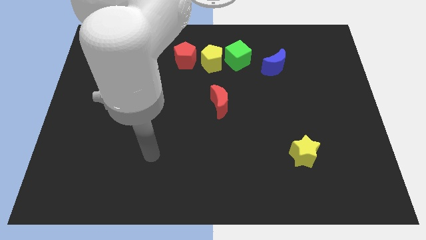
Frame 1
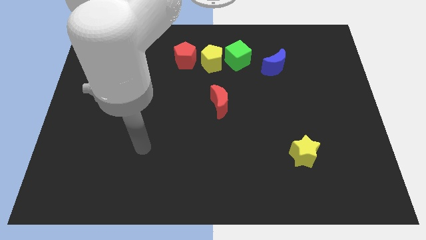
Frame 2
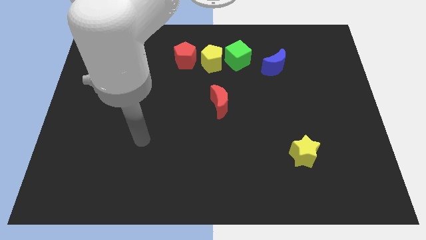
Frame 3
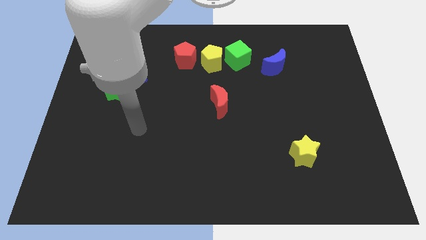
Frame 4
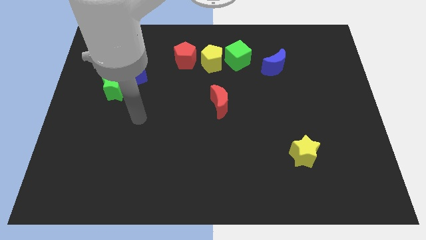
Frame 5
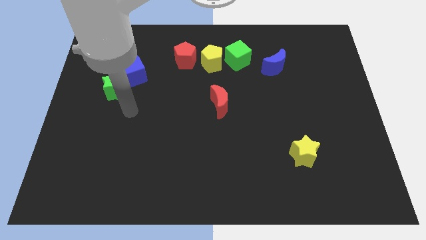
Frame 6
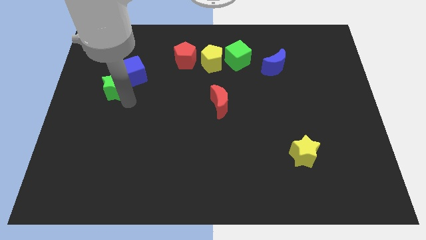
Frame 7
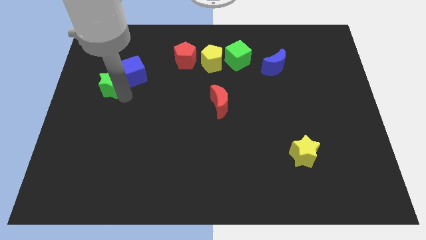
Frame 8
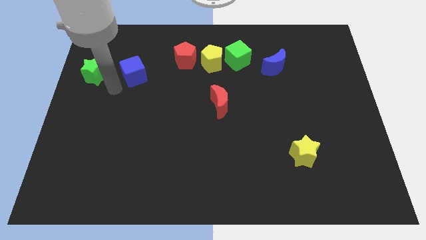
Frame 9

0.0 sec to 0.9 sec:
separate the blue cube from the green star

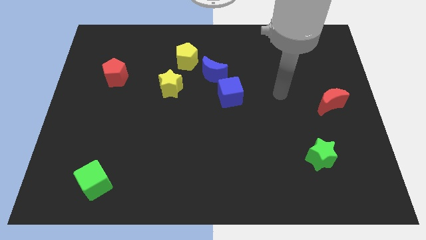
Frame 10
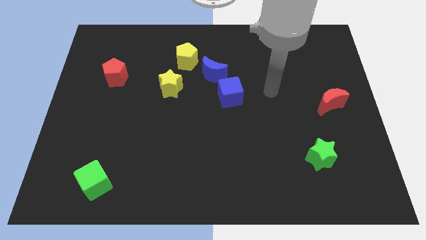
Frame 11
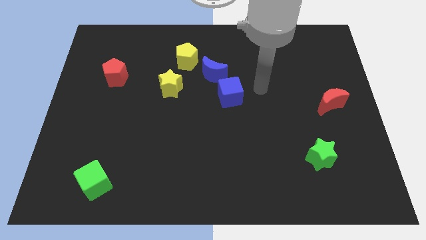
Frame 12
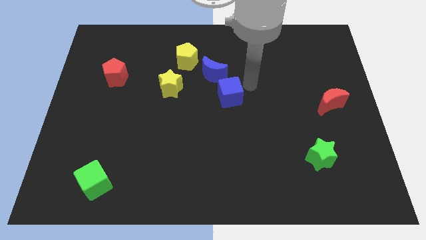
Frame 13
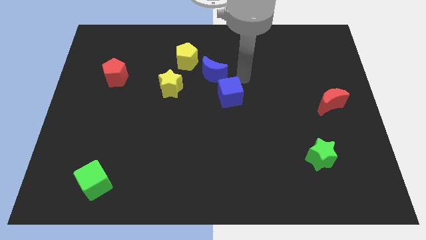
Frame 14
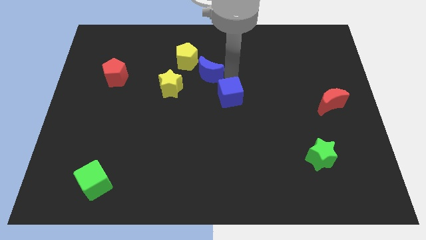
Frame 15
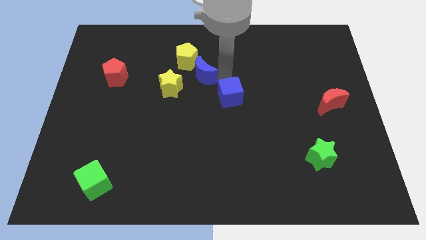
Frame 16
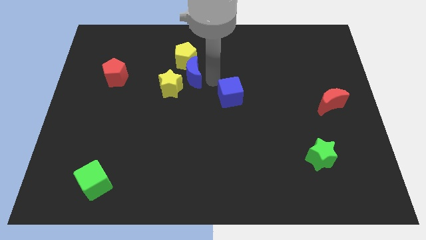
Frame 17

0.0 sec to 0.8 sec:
pull the blue cube apart from the blue moon

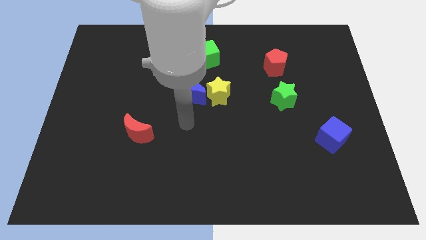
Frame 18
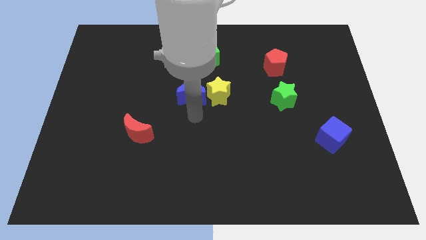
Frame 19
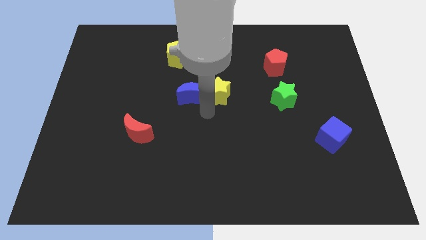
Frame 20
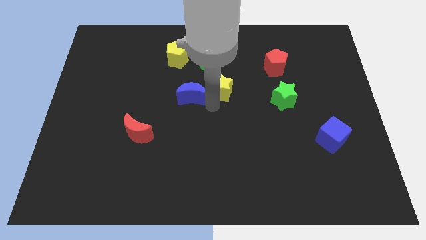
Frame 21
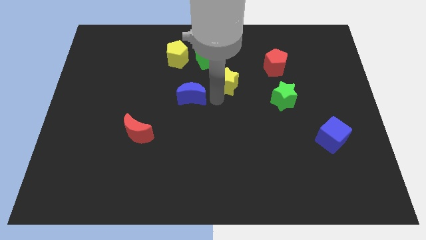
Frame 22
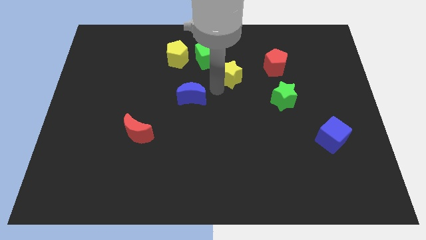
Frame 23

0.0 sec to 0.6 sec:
separate the blue moon from the yellow star

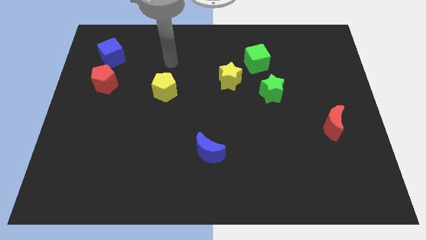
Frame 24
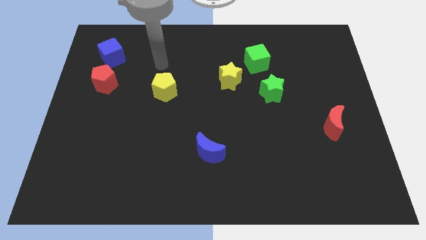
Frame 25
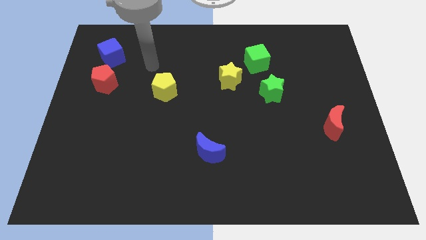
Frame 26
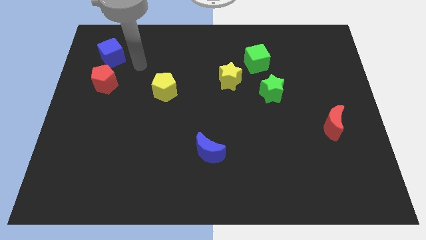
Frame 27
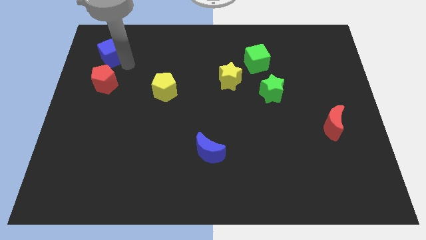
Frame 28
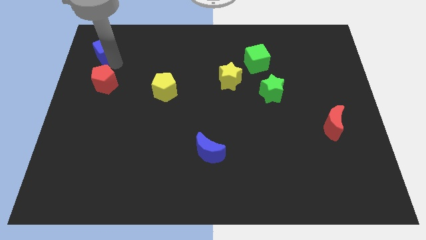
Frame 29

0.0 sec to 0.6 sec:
move the red pentagon away from the blue cube

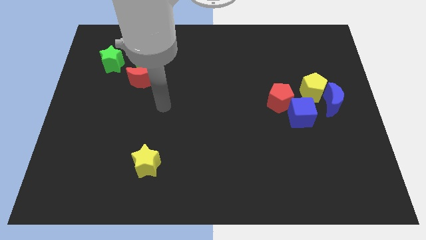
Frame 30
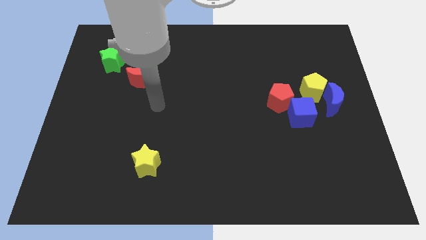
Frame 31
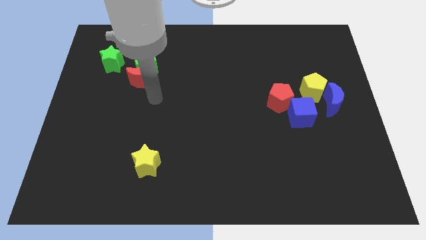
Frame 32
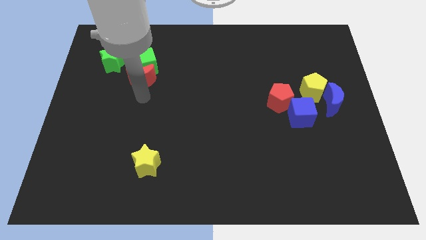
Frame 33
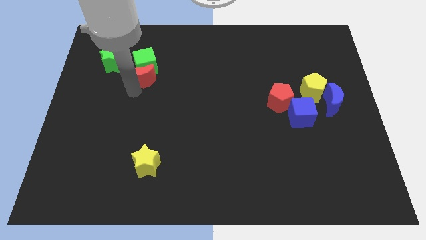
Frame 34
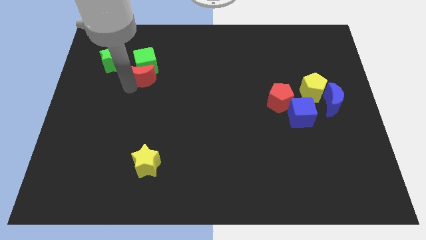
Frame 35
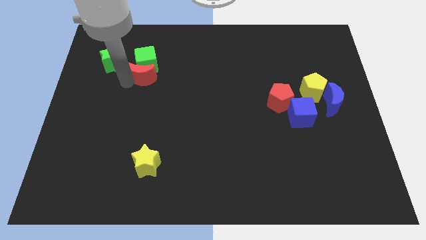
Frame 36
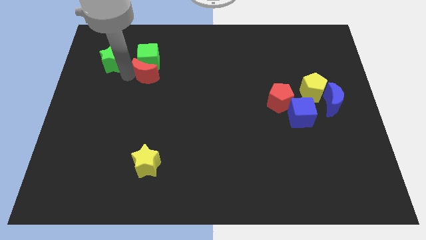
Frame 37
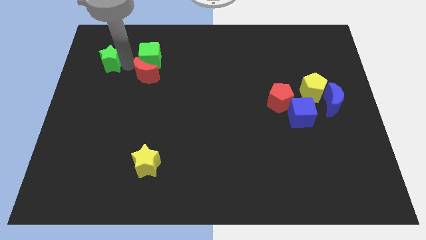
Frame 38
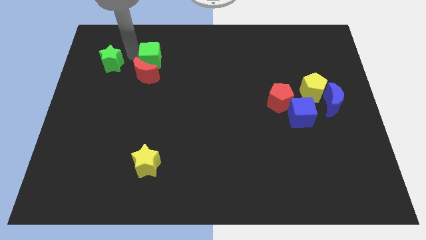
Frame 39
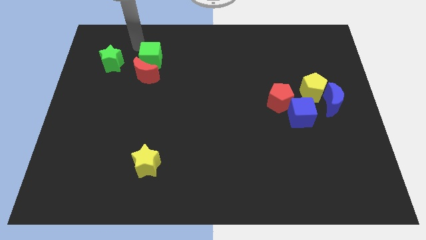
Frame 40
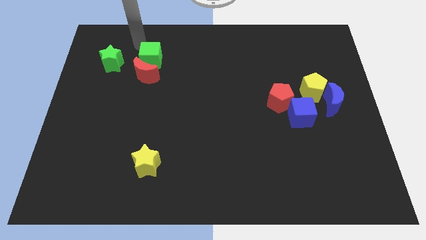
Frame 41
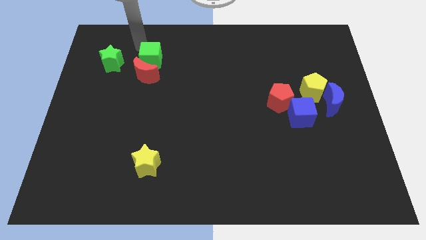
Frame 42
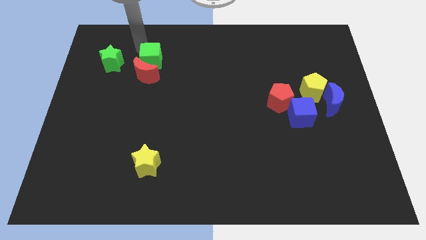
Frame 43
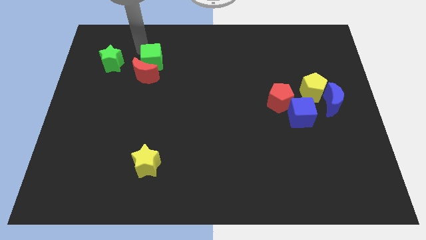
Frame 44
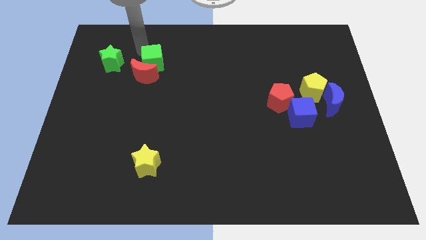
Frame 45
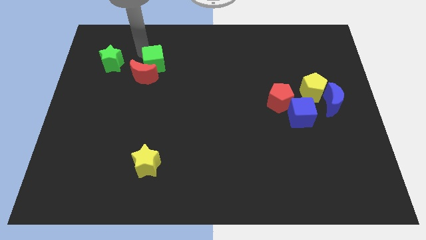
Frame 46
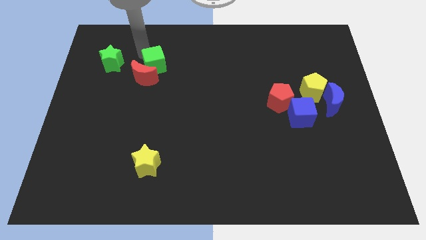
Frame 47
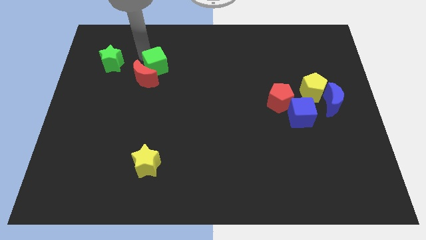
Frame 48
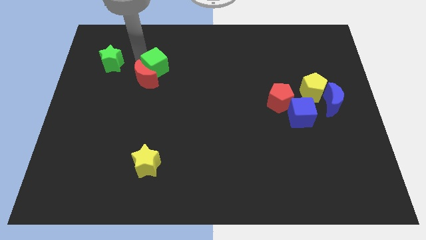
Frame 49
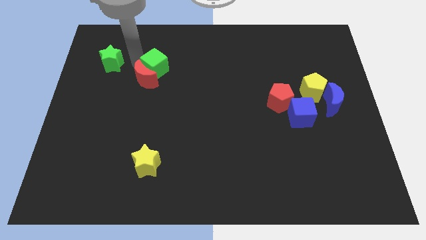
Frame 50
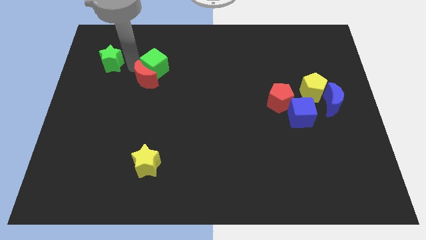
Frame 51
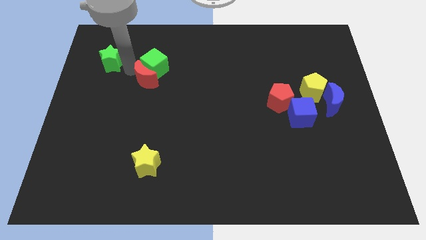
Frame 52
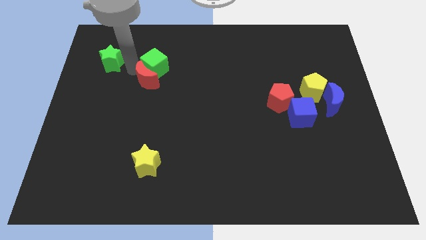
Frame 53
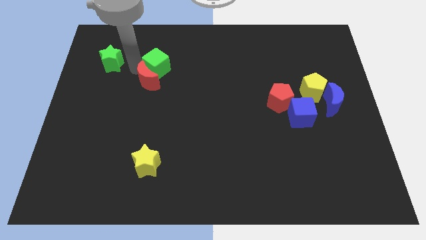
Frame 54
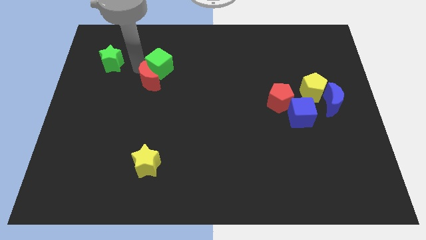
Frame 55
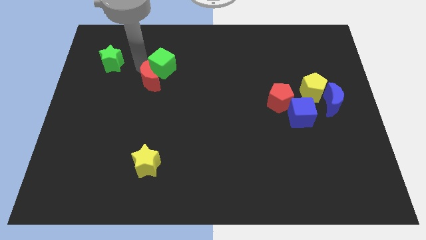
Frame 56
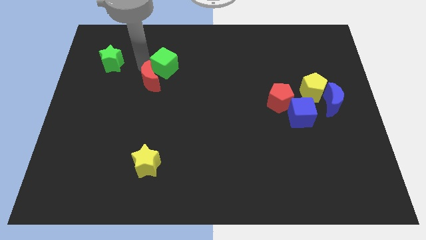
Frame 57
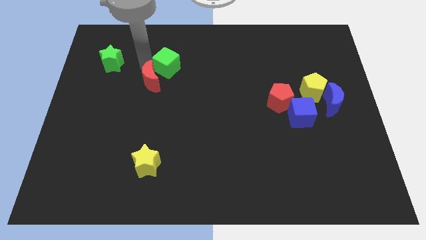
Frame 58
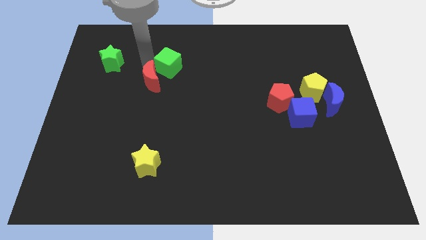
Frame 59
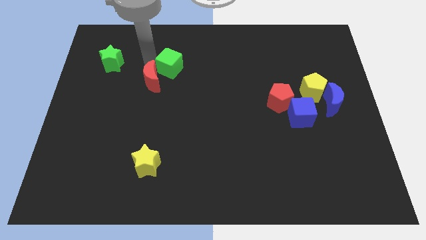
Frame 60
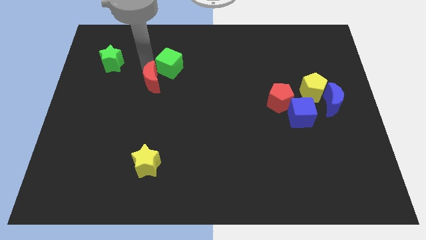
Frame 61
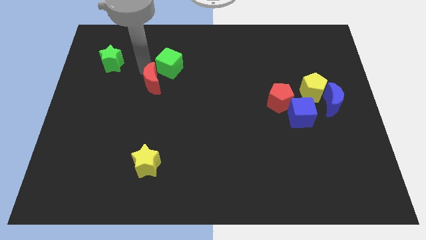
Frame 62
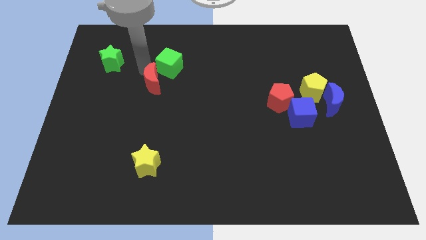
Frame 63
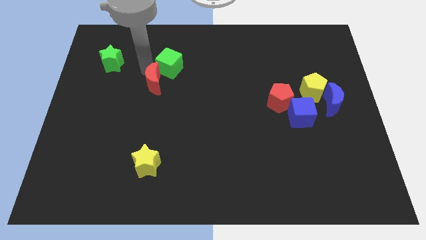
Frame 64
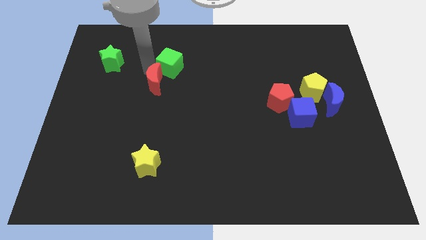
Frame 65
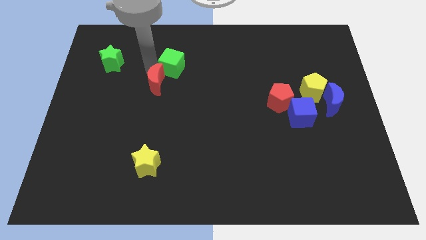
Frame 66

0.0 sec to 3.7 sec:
move the green cube away from the red moon and green star

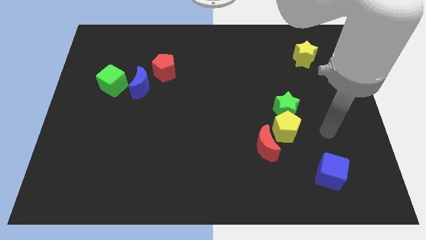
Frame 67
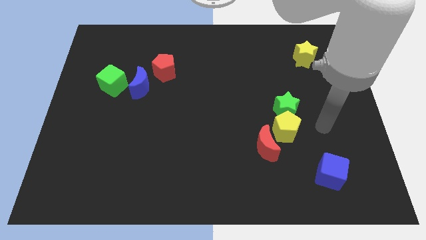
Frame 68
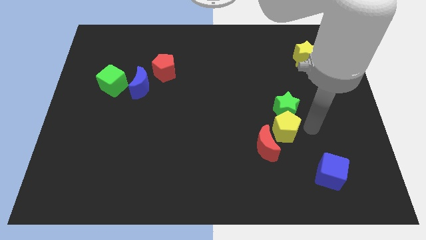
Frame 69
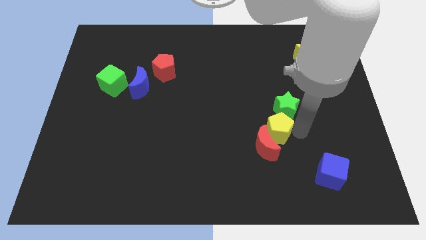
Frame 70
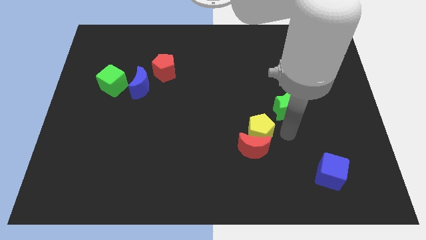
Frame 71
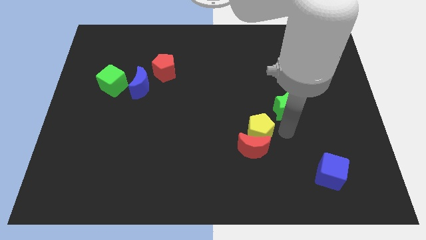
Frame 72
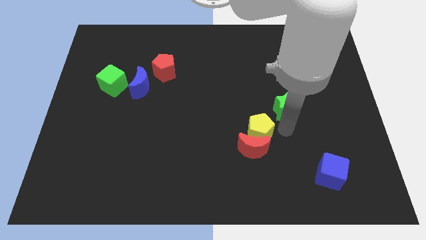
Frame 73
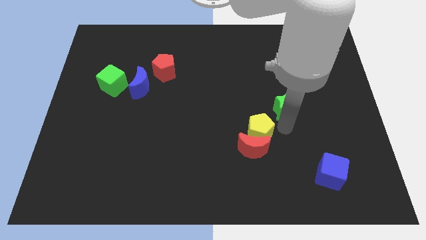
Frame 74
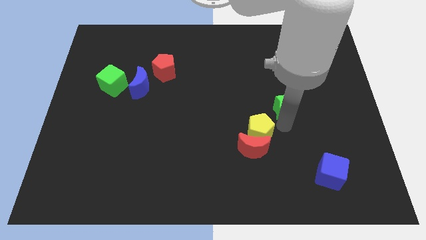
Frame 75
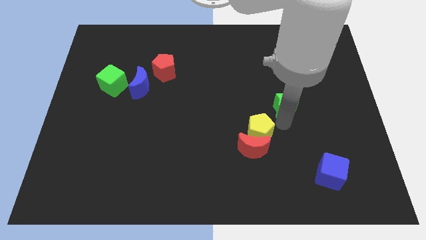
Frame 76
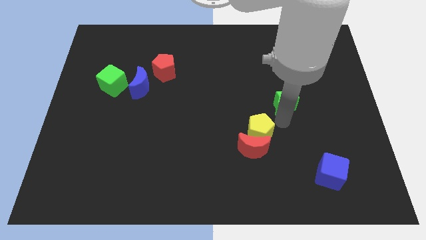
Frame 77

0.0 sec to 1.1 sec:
move the green star away from the yellow pentagon

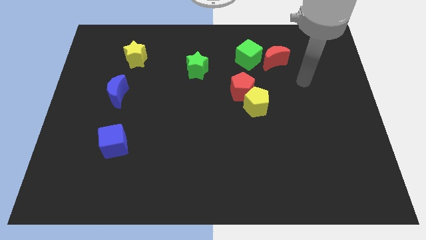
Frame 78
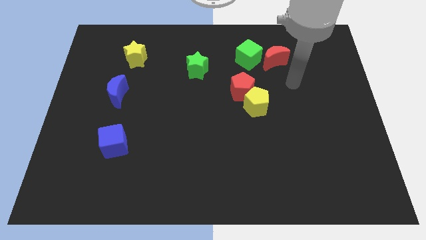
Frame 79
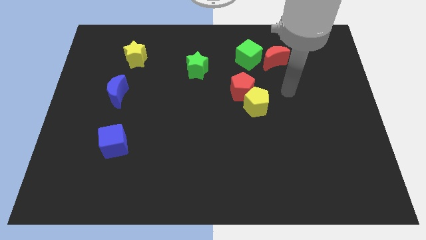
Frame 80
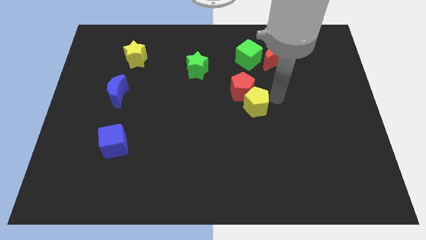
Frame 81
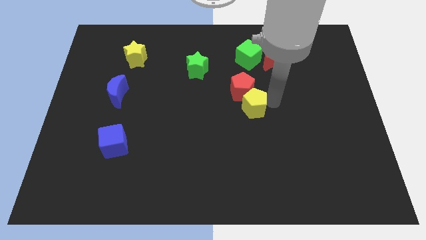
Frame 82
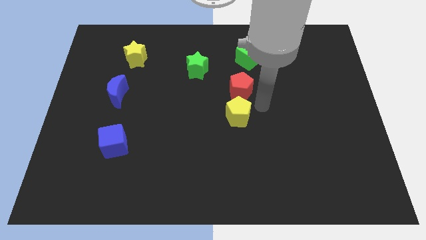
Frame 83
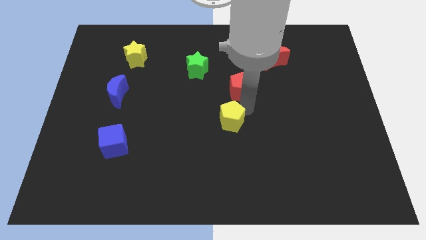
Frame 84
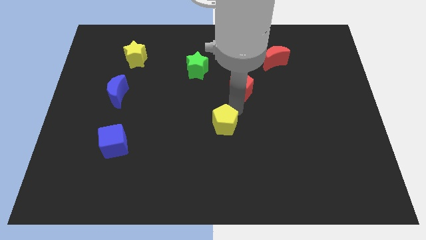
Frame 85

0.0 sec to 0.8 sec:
separate the red pentagon from the yellow pentagon

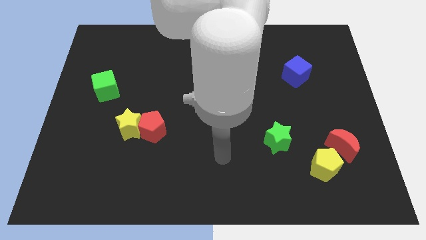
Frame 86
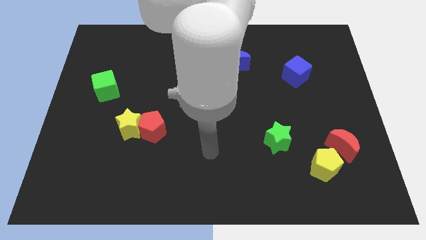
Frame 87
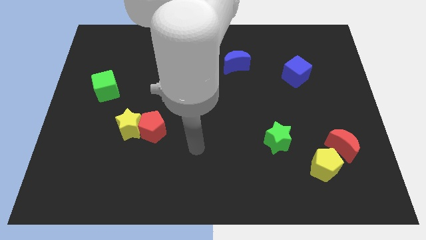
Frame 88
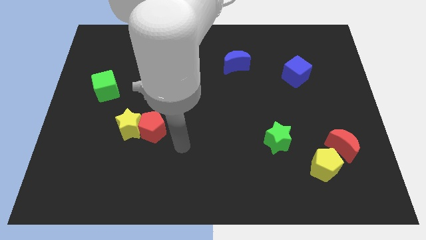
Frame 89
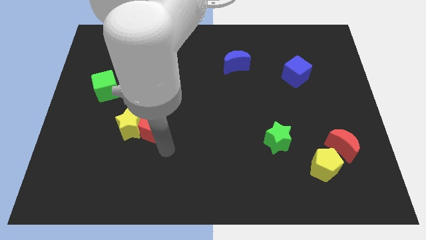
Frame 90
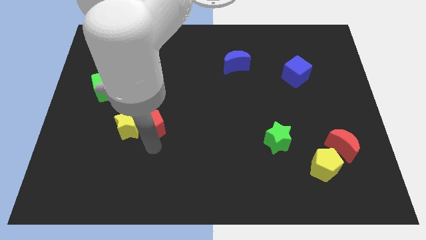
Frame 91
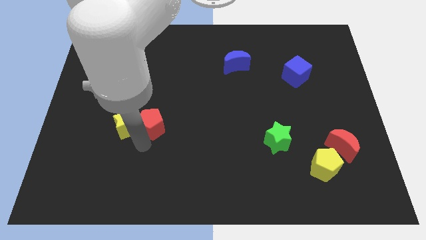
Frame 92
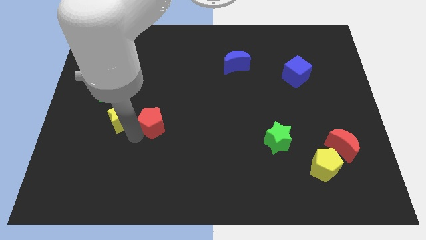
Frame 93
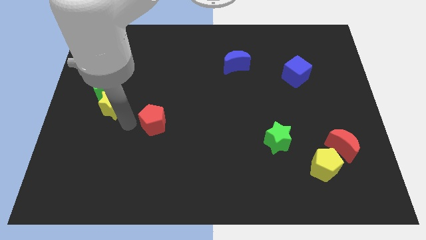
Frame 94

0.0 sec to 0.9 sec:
separate the red pentagon from the yellow star
